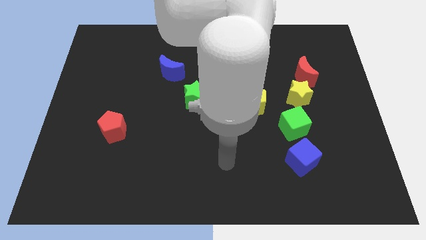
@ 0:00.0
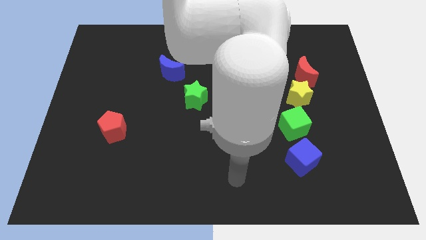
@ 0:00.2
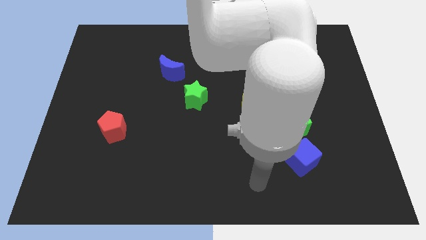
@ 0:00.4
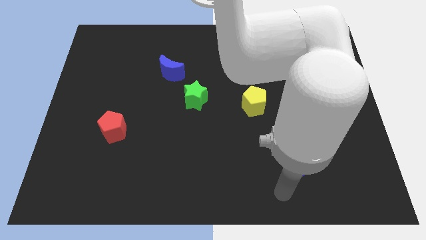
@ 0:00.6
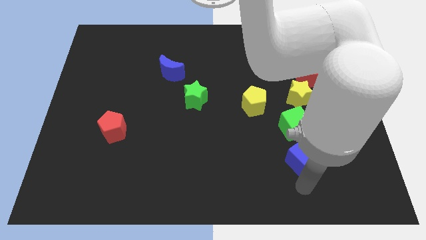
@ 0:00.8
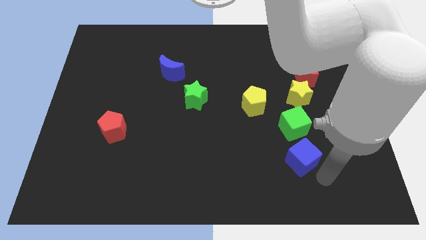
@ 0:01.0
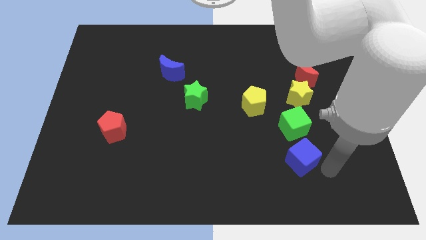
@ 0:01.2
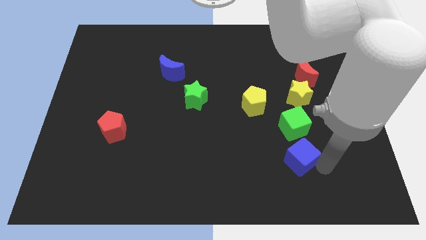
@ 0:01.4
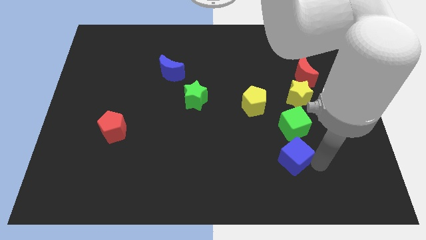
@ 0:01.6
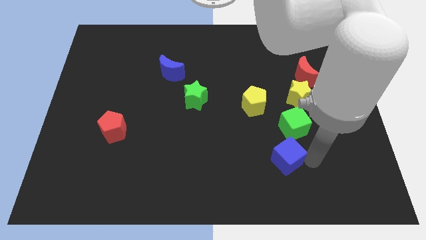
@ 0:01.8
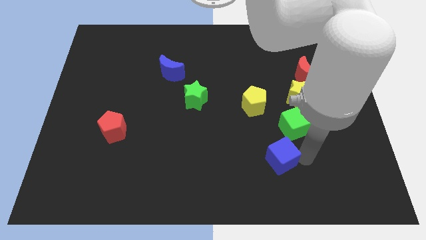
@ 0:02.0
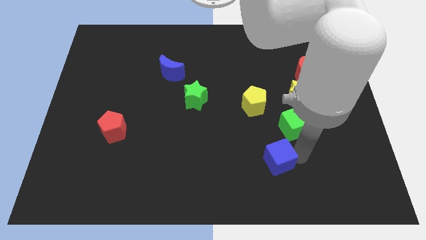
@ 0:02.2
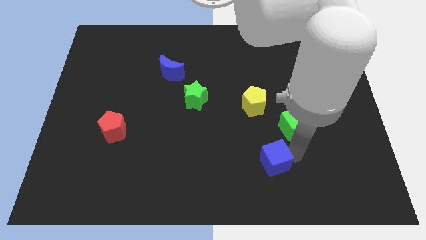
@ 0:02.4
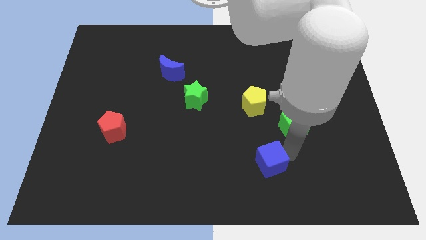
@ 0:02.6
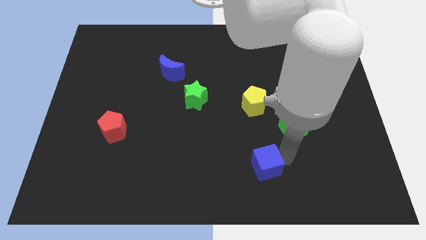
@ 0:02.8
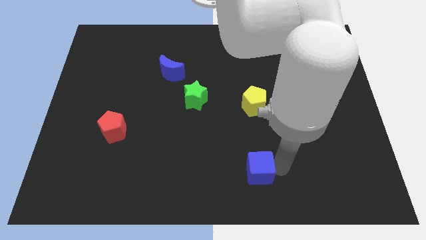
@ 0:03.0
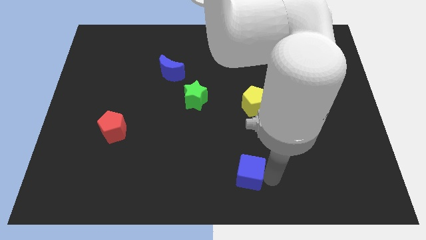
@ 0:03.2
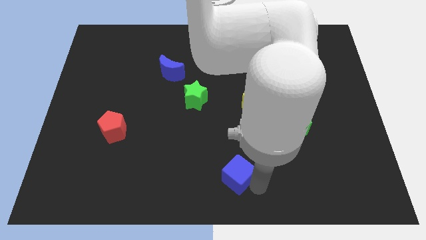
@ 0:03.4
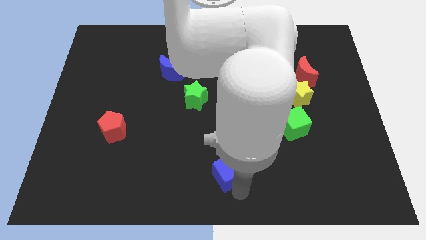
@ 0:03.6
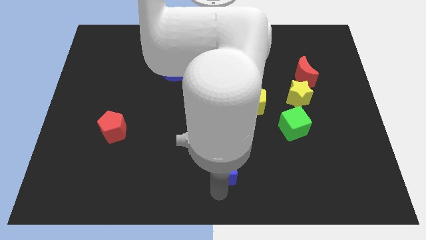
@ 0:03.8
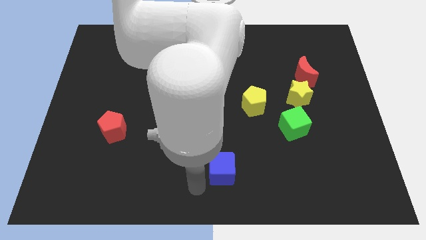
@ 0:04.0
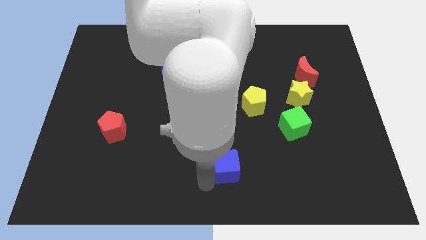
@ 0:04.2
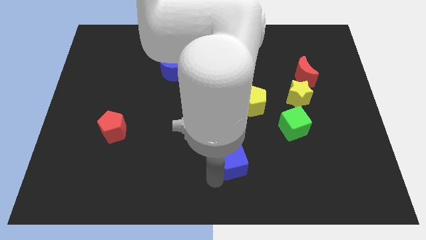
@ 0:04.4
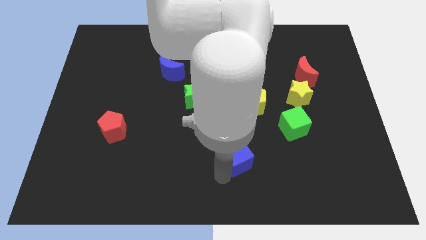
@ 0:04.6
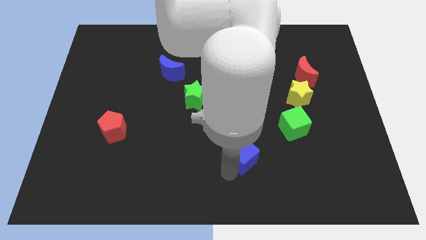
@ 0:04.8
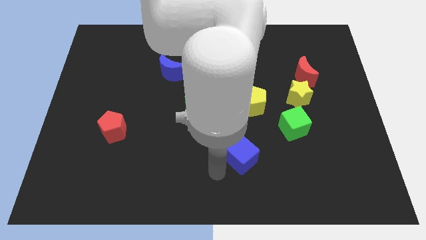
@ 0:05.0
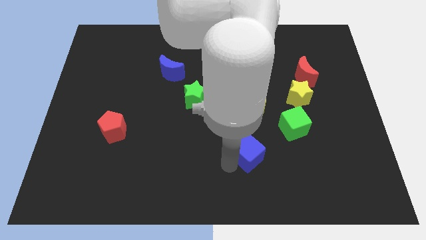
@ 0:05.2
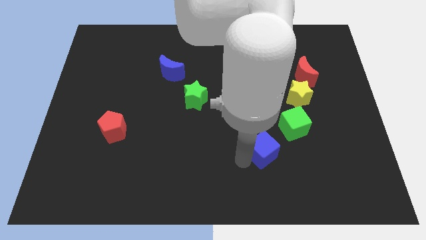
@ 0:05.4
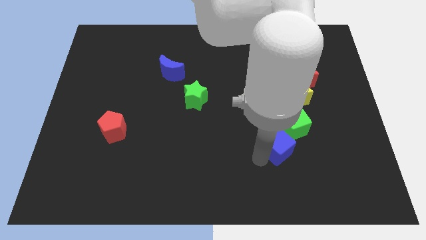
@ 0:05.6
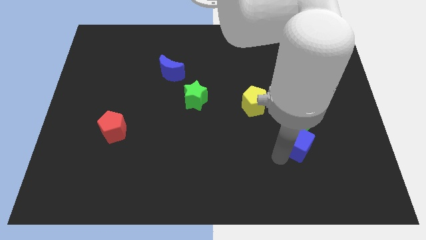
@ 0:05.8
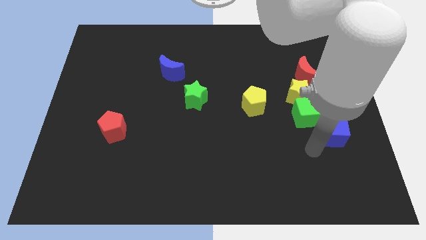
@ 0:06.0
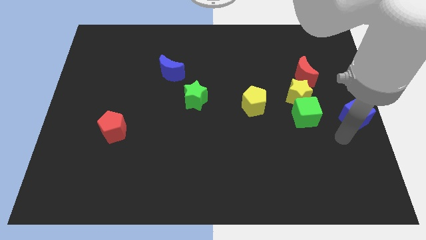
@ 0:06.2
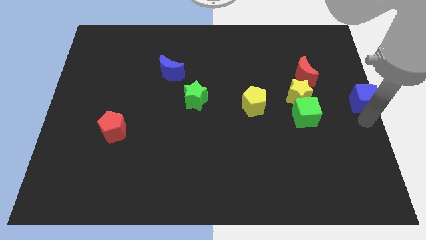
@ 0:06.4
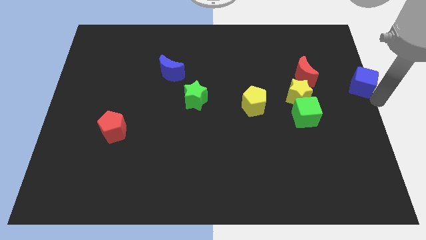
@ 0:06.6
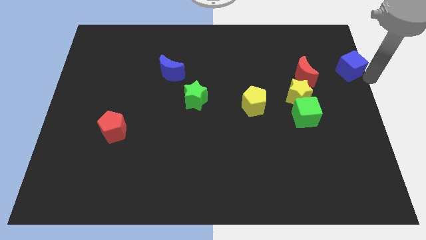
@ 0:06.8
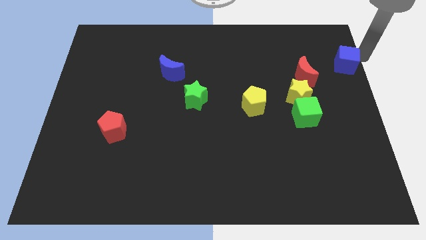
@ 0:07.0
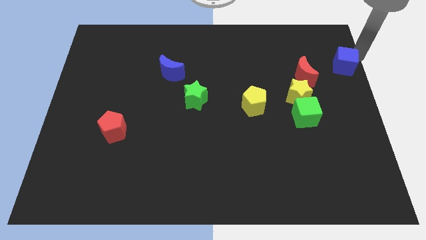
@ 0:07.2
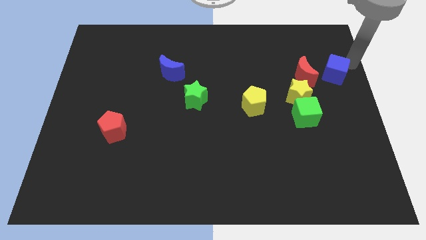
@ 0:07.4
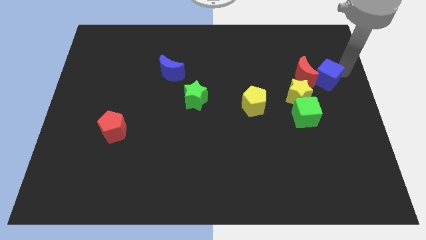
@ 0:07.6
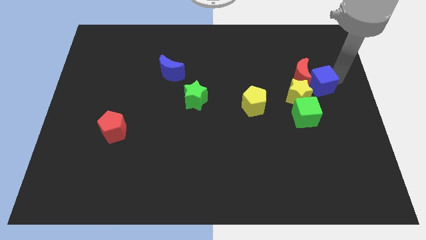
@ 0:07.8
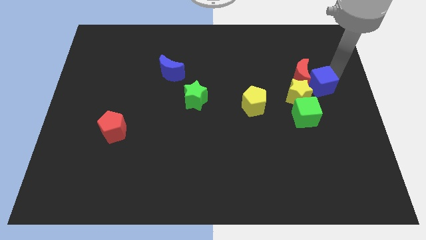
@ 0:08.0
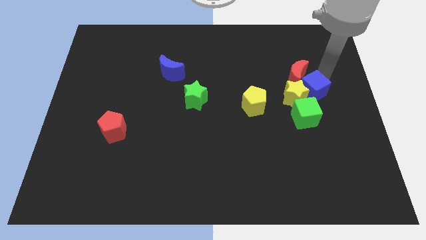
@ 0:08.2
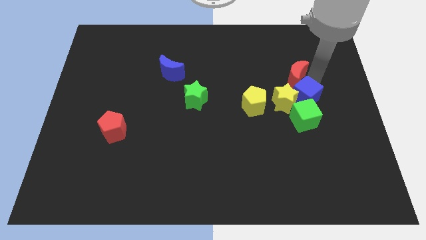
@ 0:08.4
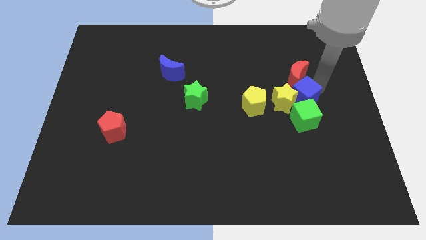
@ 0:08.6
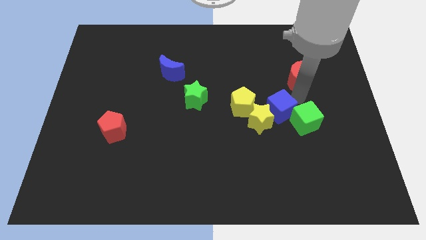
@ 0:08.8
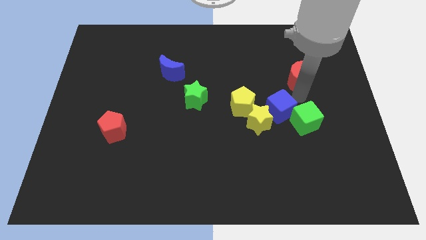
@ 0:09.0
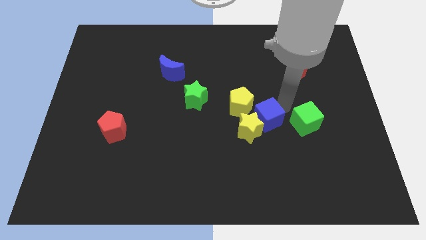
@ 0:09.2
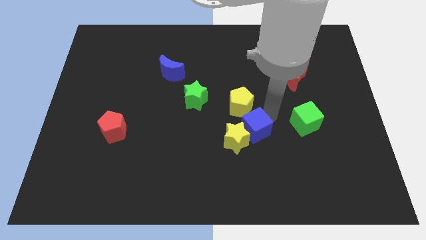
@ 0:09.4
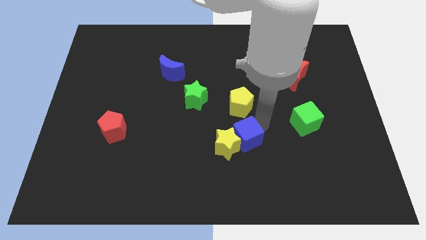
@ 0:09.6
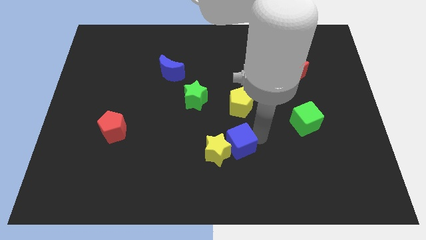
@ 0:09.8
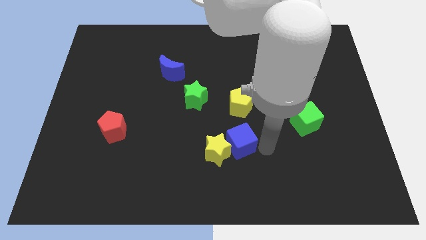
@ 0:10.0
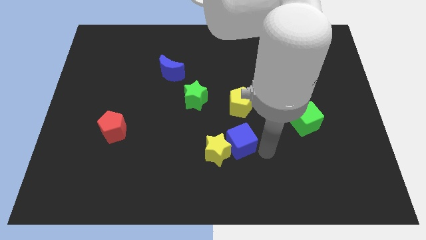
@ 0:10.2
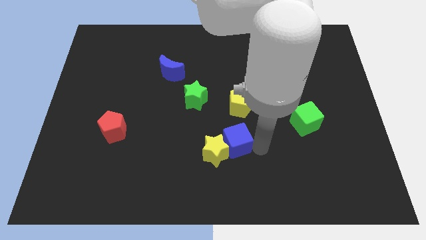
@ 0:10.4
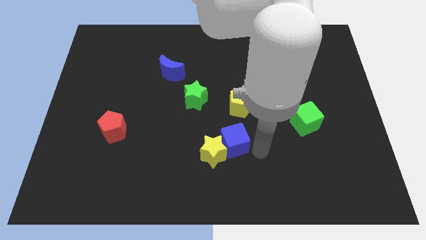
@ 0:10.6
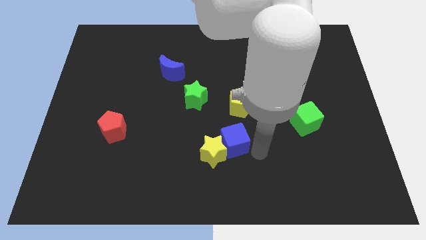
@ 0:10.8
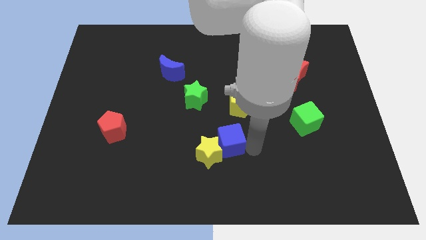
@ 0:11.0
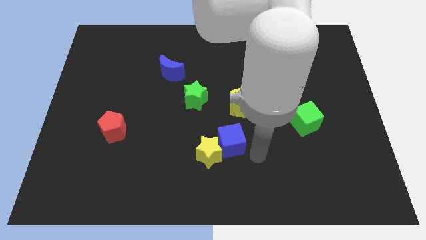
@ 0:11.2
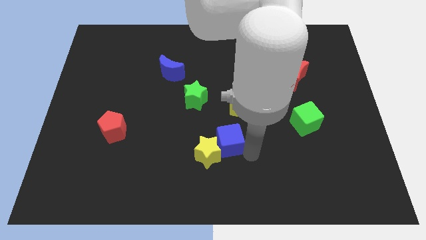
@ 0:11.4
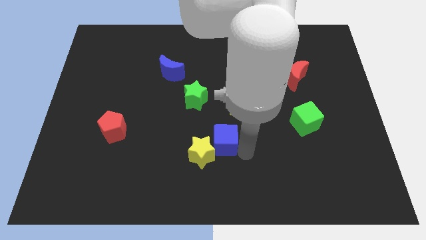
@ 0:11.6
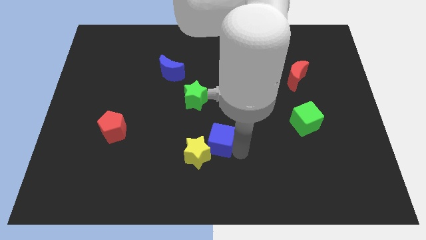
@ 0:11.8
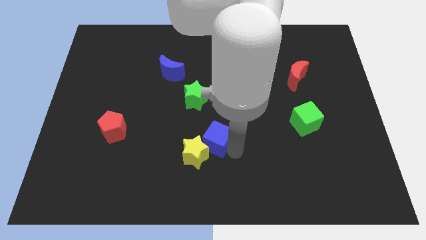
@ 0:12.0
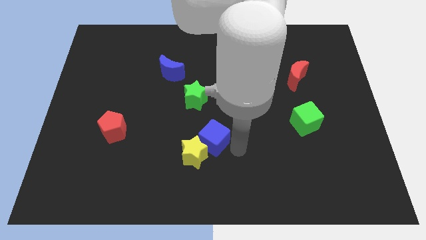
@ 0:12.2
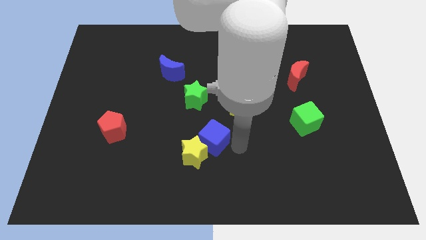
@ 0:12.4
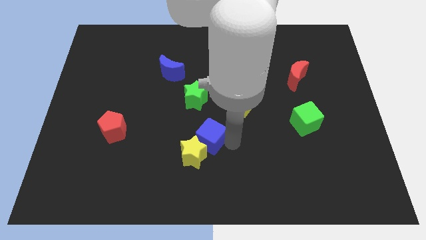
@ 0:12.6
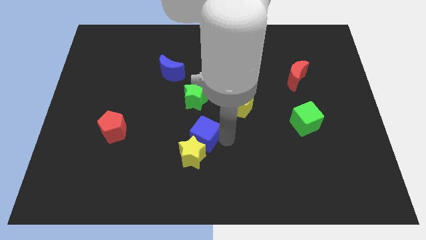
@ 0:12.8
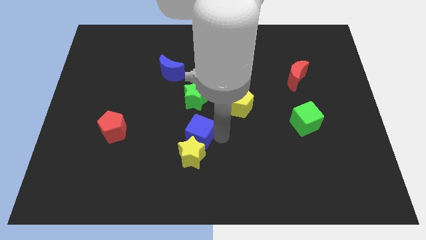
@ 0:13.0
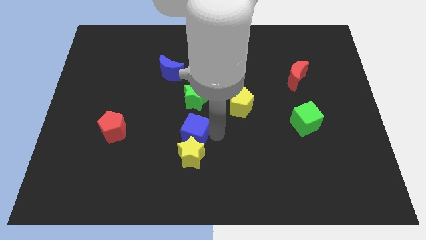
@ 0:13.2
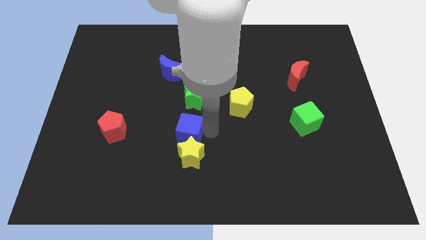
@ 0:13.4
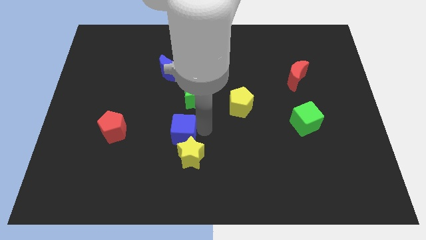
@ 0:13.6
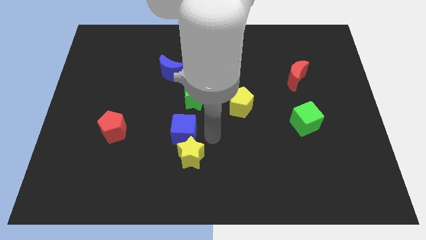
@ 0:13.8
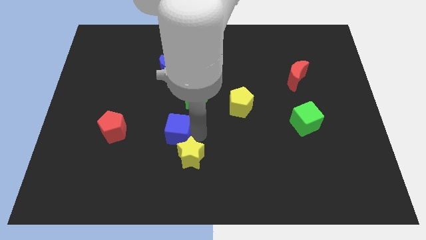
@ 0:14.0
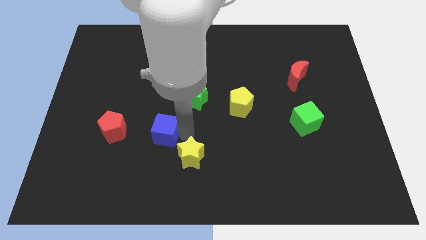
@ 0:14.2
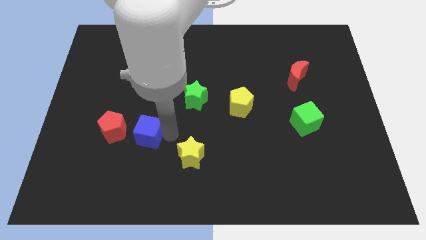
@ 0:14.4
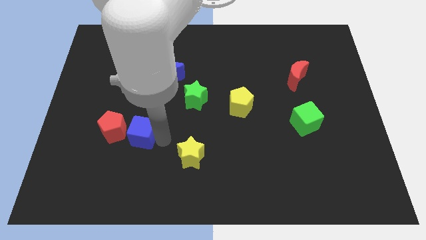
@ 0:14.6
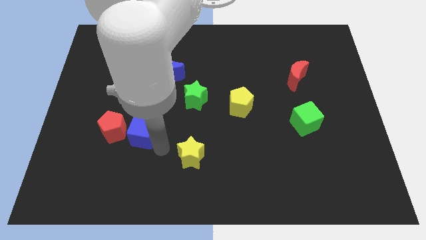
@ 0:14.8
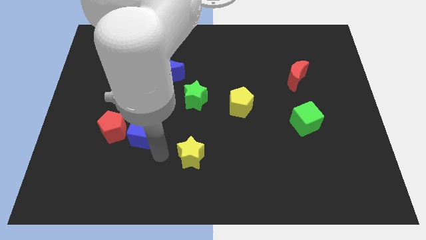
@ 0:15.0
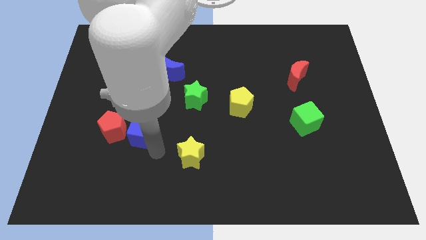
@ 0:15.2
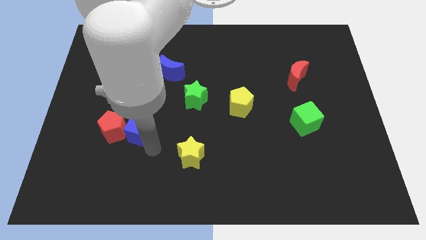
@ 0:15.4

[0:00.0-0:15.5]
move the blue cube close to the red pentagon
